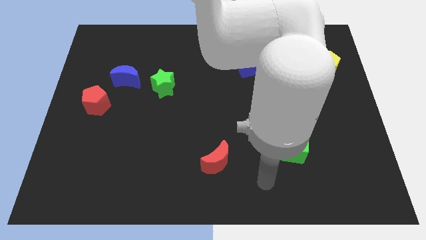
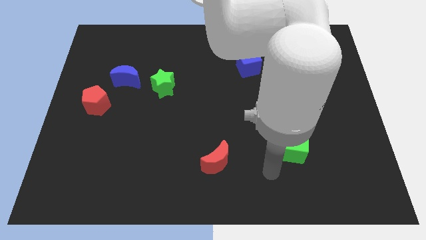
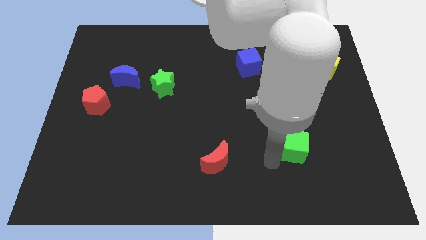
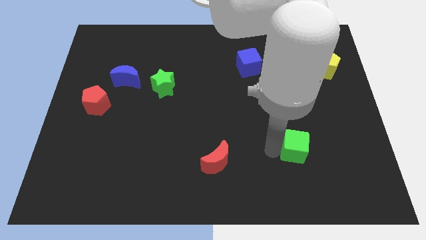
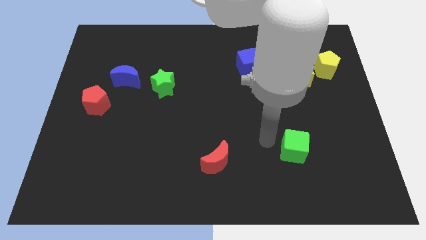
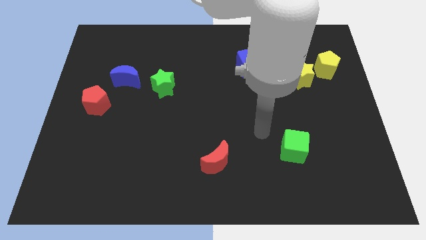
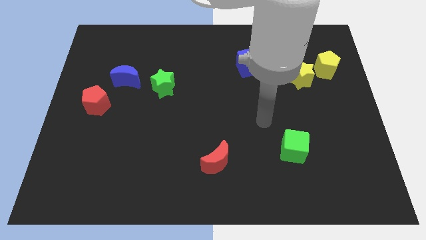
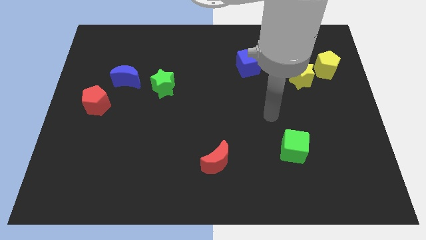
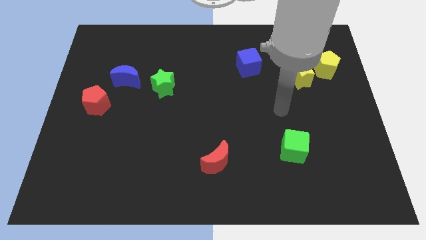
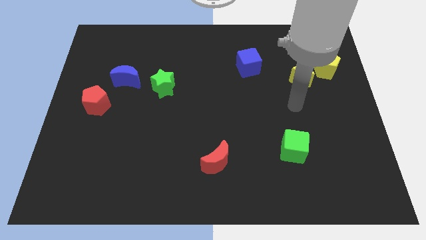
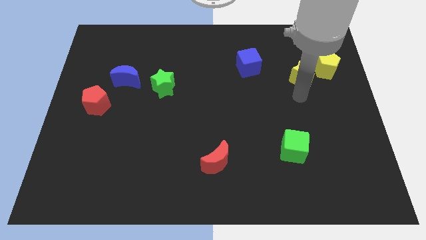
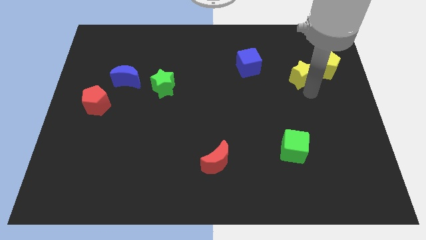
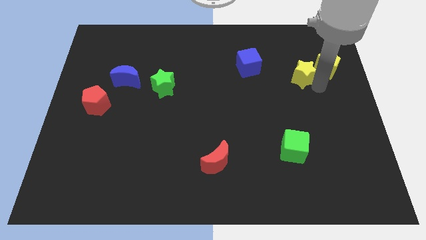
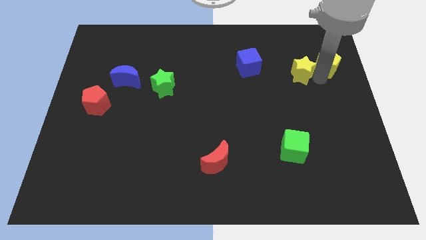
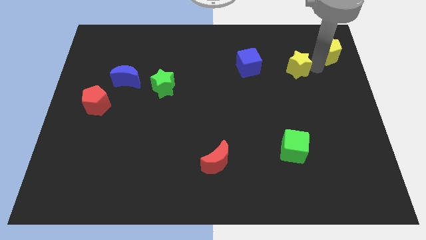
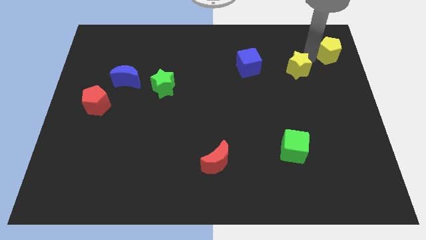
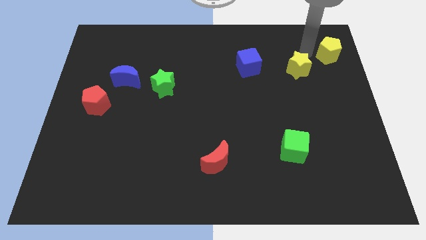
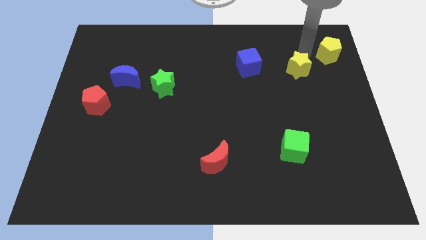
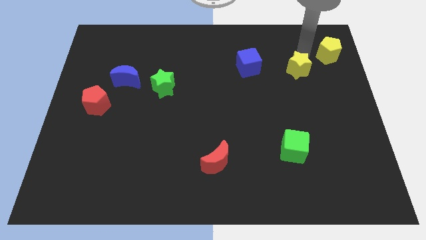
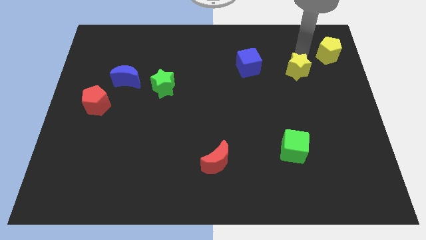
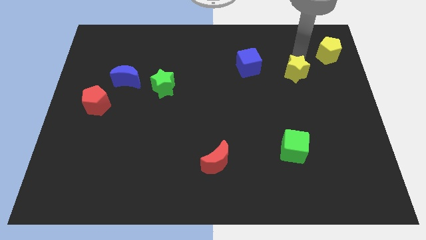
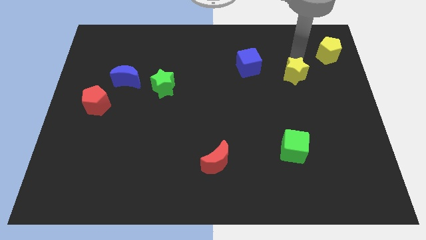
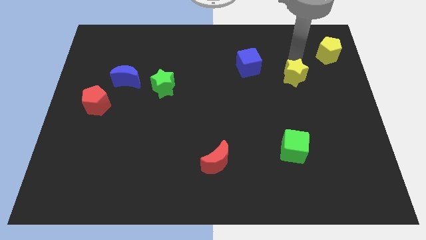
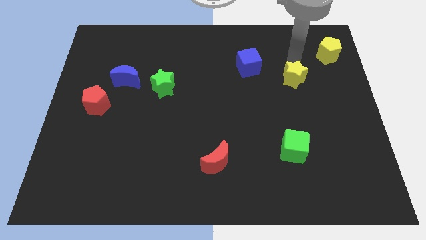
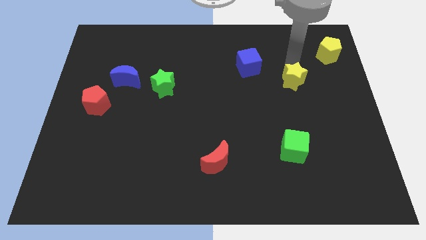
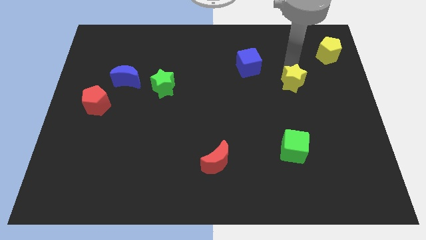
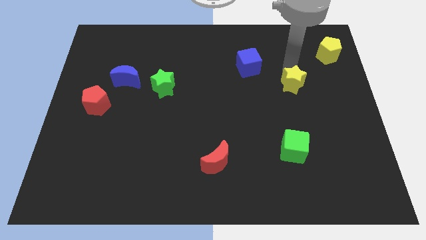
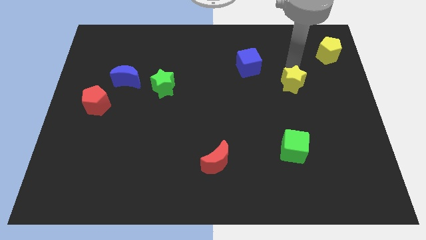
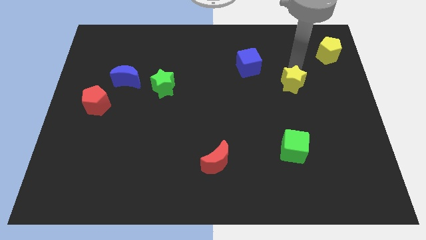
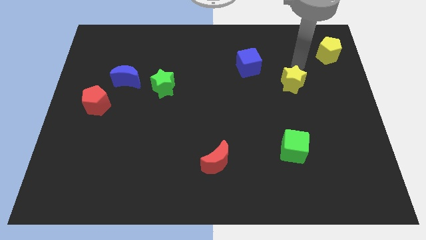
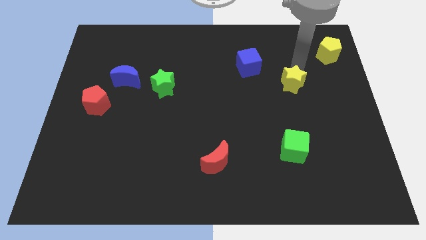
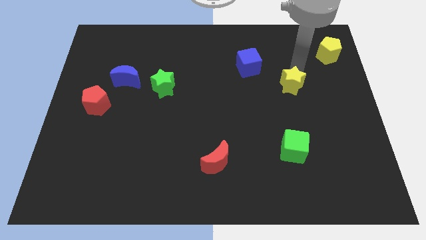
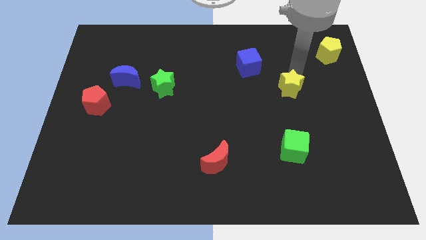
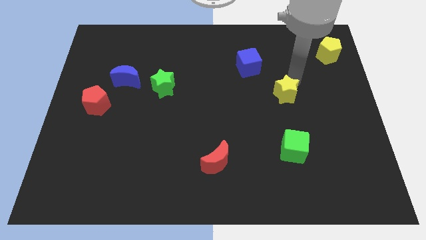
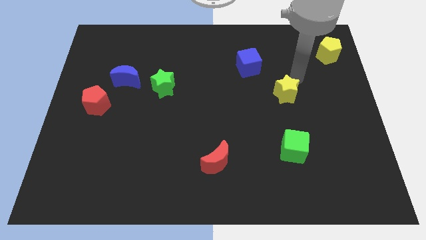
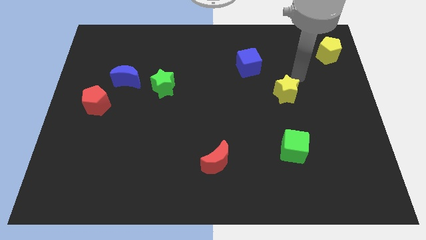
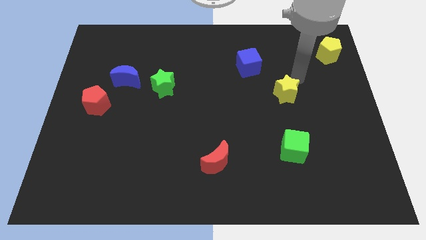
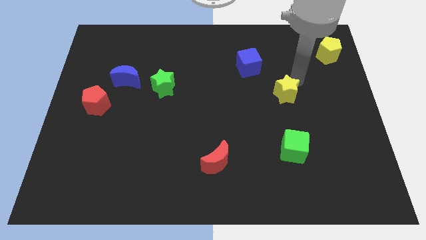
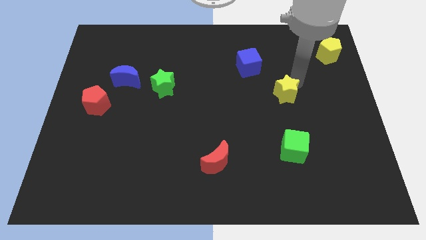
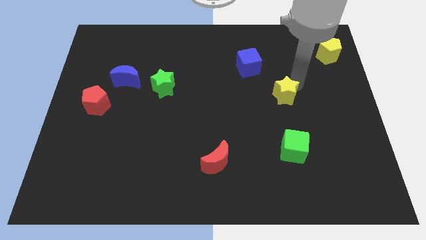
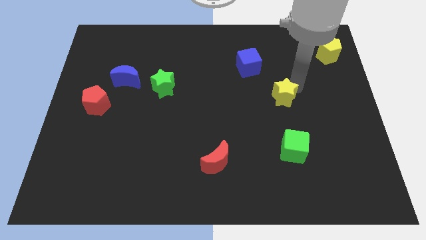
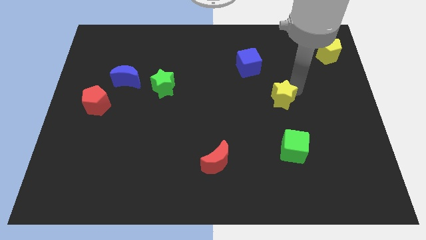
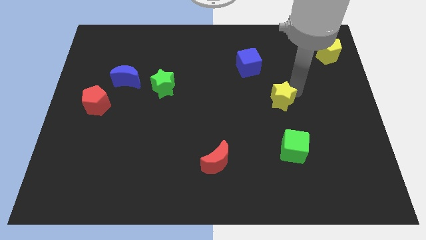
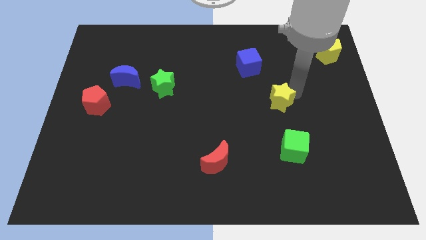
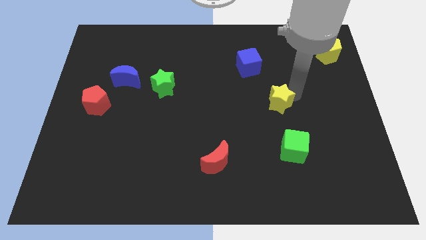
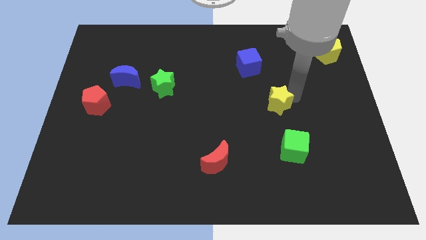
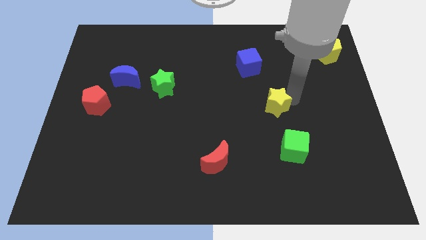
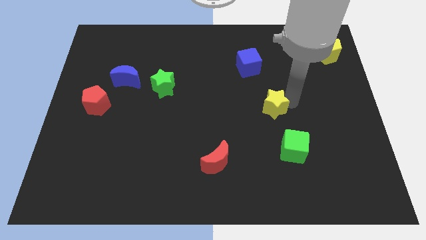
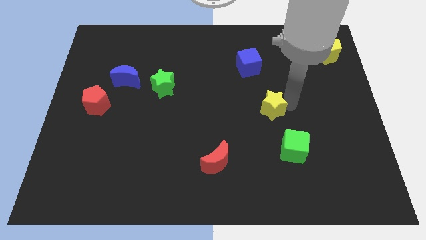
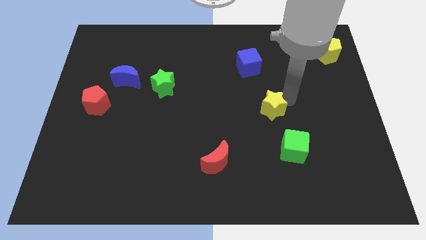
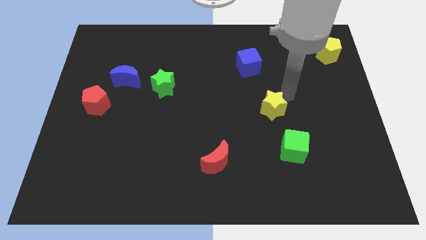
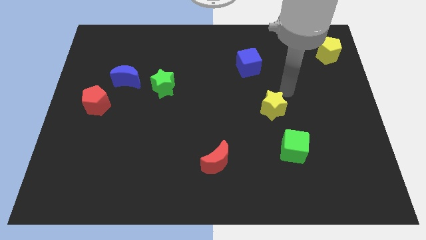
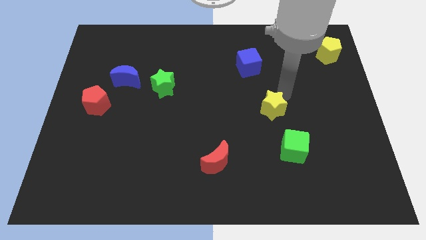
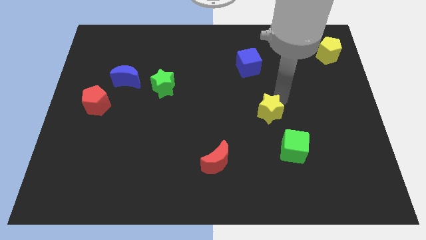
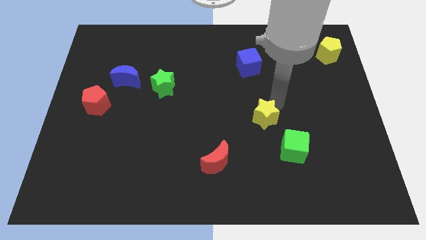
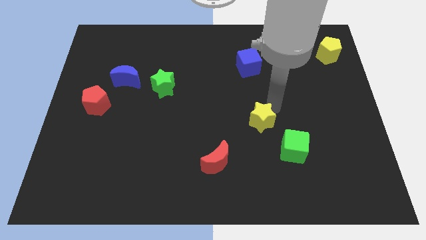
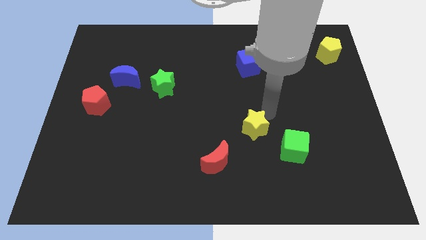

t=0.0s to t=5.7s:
move the yellow star diagonally up and to the right of the red moon

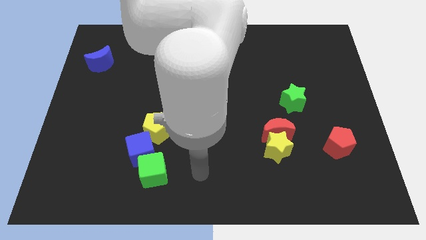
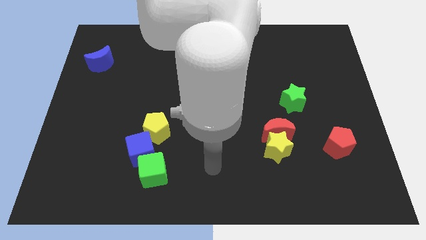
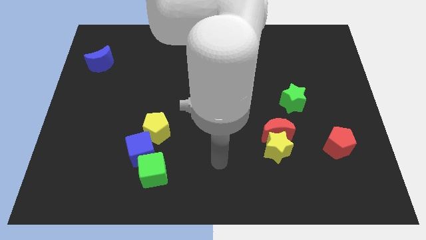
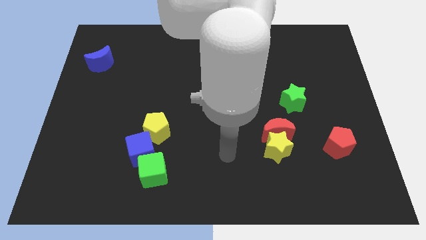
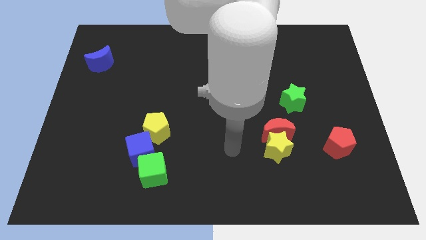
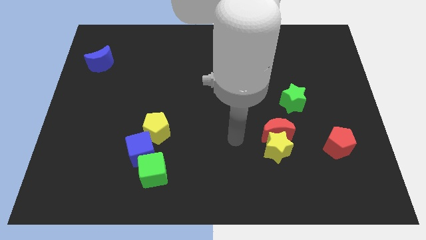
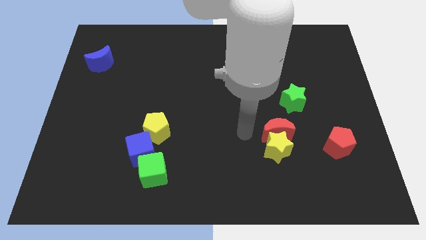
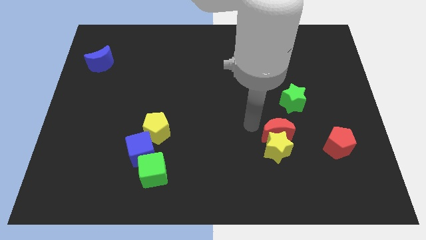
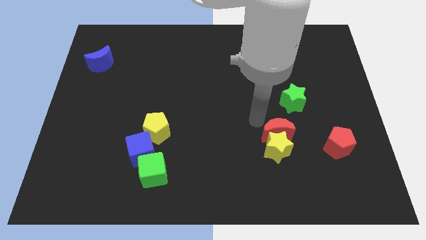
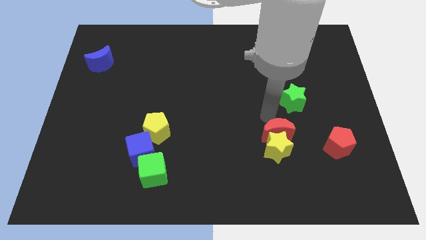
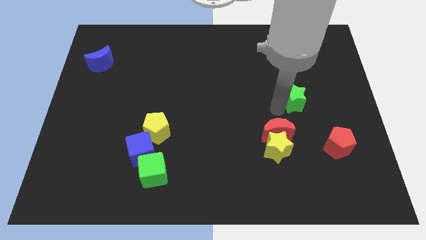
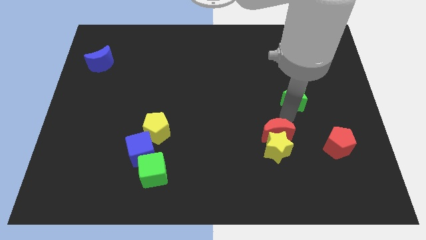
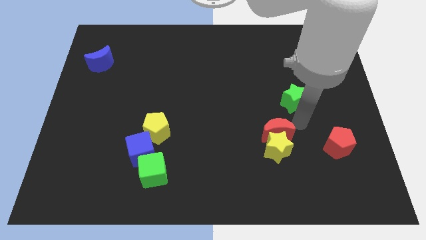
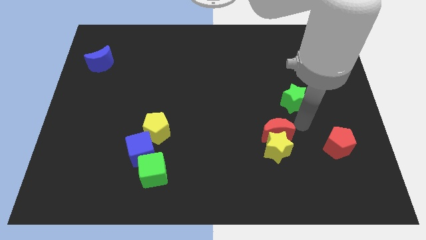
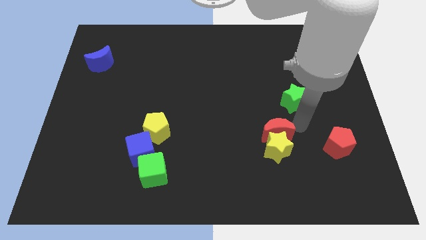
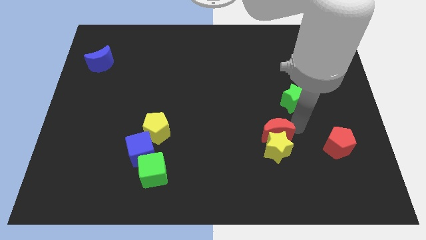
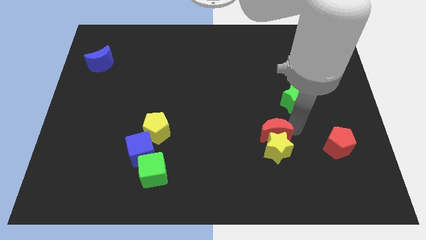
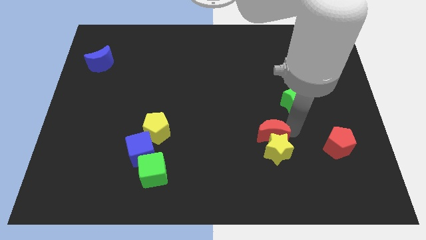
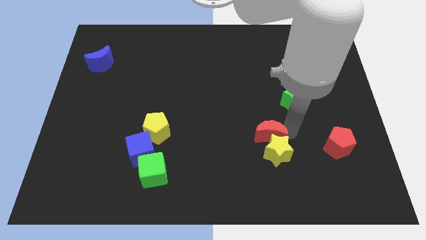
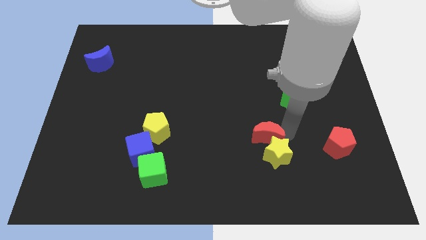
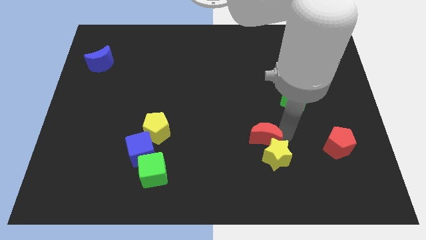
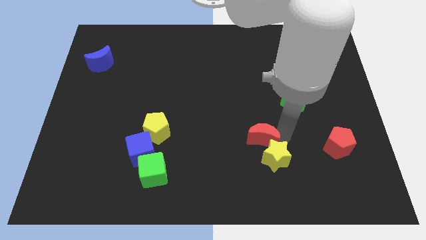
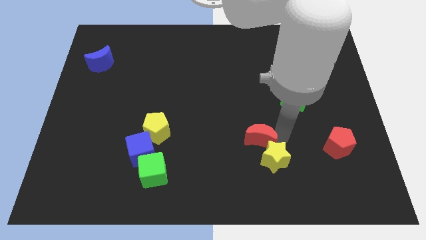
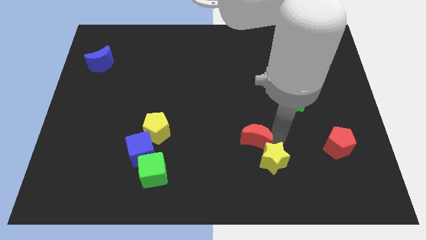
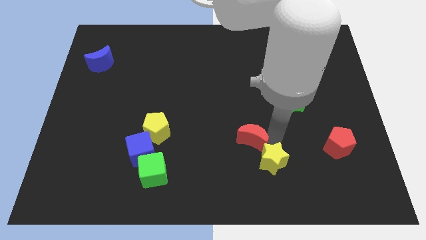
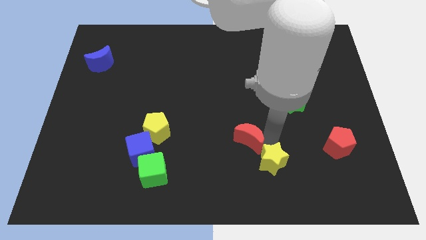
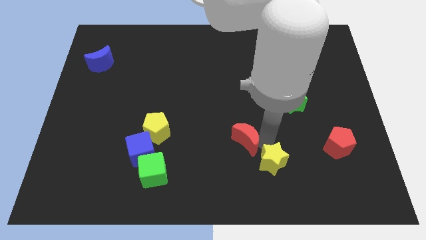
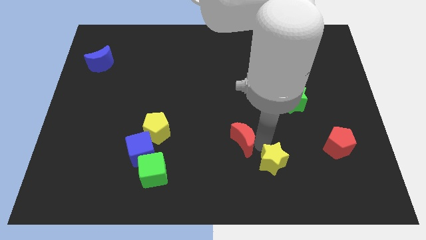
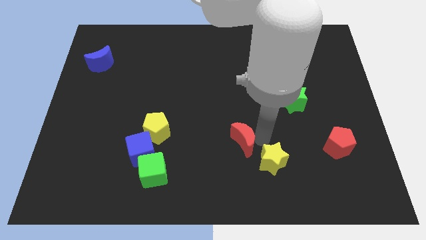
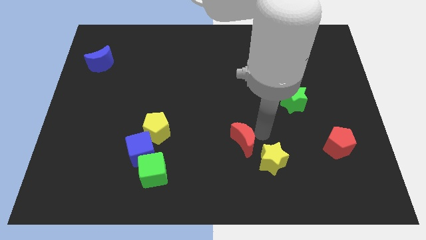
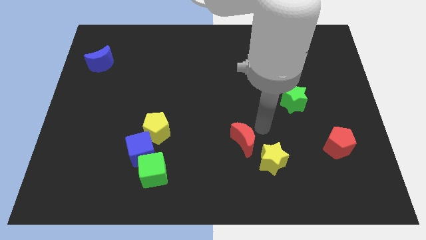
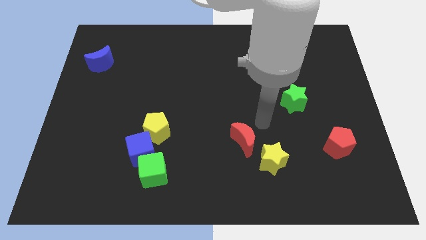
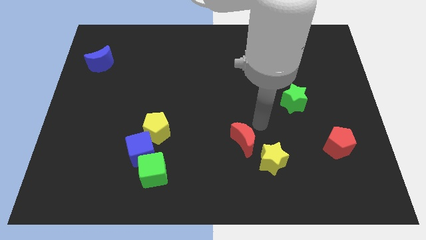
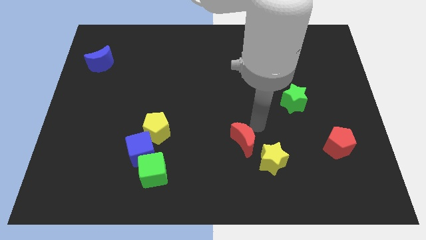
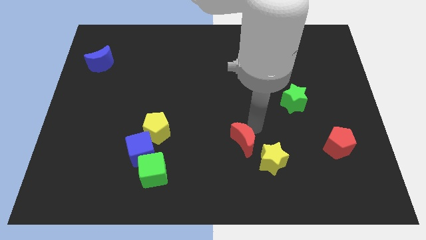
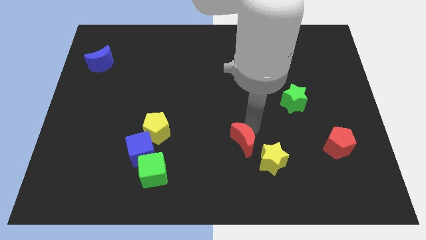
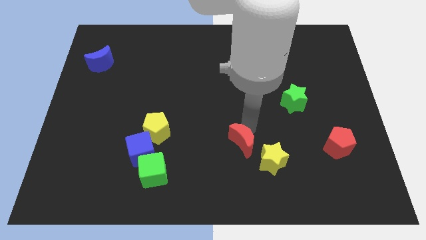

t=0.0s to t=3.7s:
move the red moon left of the yellow star
